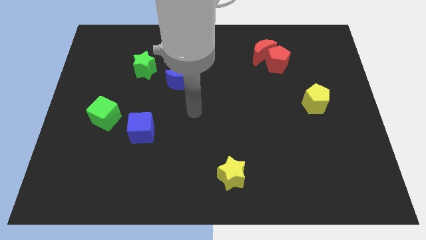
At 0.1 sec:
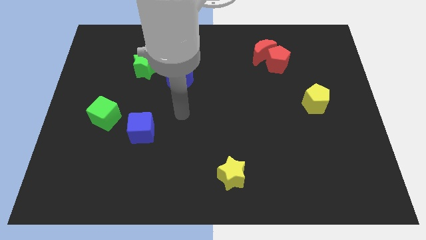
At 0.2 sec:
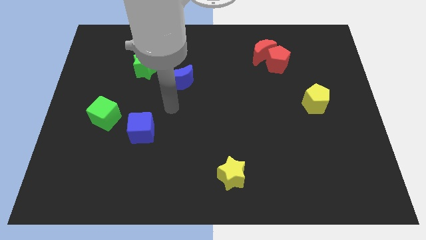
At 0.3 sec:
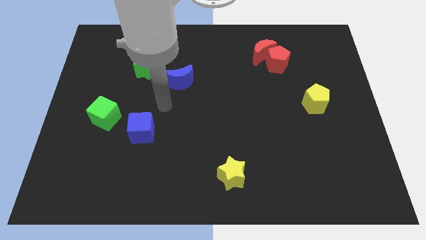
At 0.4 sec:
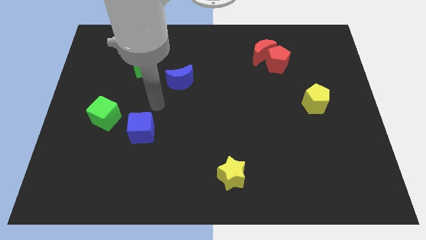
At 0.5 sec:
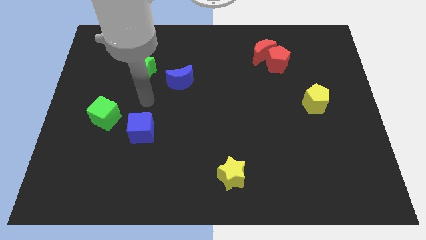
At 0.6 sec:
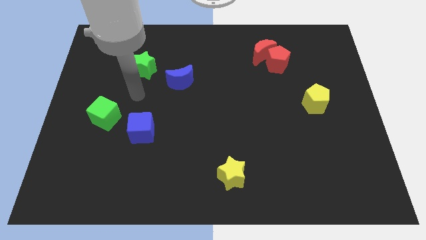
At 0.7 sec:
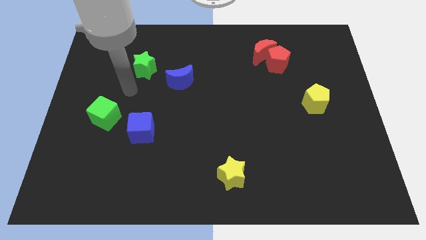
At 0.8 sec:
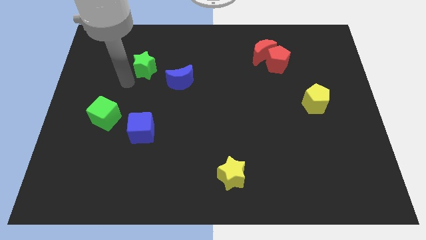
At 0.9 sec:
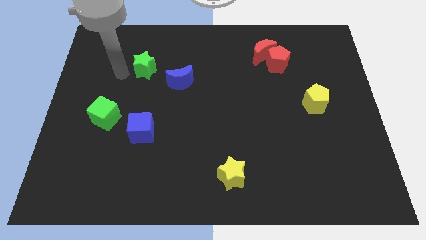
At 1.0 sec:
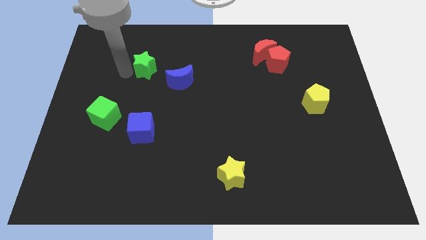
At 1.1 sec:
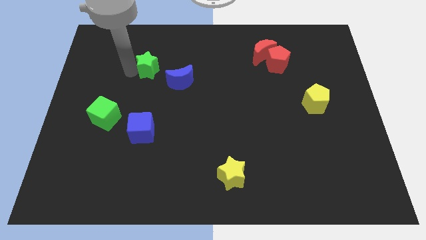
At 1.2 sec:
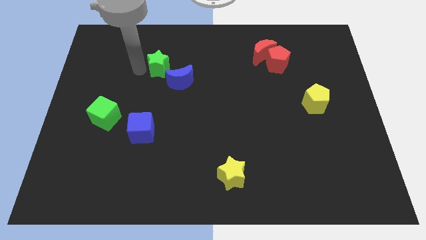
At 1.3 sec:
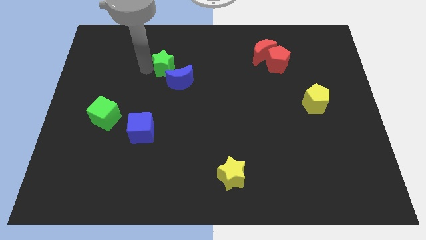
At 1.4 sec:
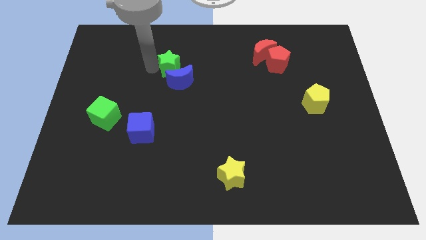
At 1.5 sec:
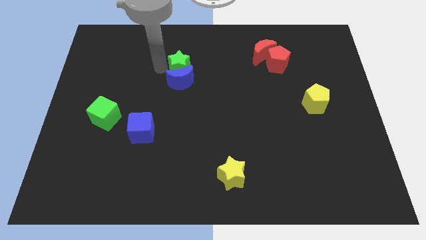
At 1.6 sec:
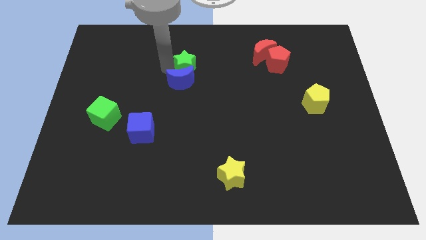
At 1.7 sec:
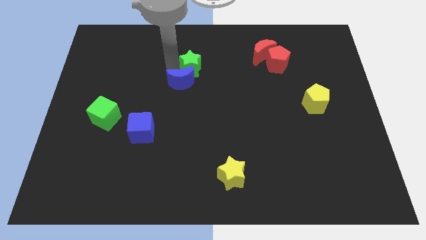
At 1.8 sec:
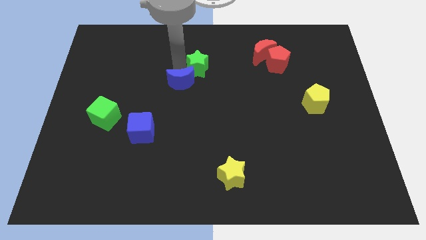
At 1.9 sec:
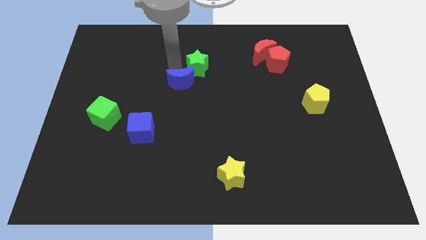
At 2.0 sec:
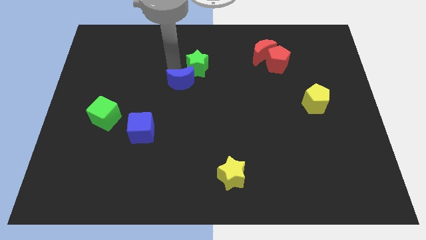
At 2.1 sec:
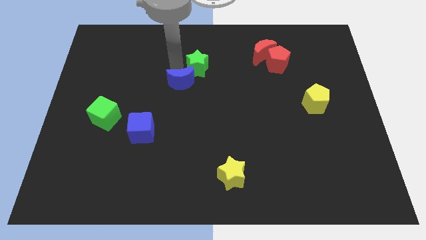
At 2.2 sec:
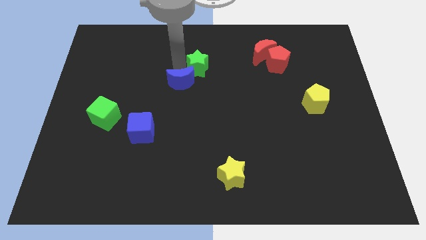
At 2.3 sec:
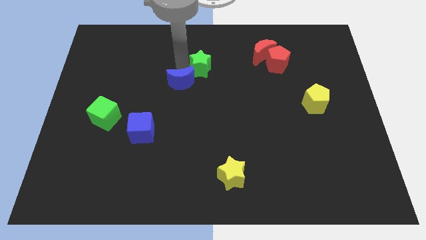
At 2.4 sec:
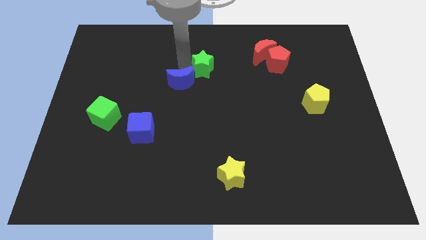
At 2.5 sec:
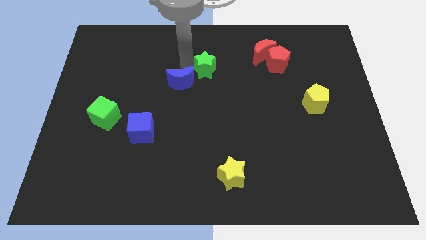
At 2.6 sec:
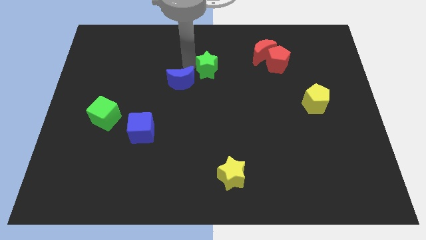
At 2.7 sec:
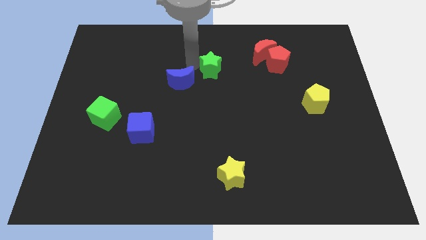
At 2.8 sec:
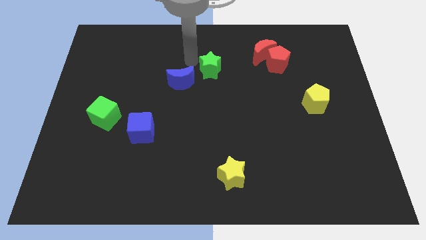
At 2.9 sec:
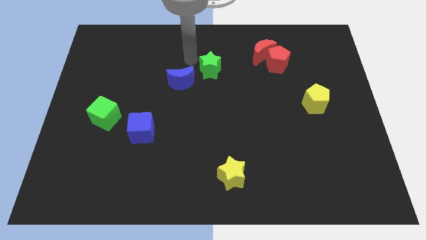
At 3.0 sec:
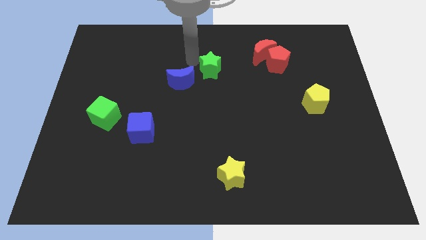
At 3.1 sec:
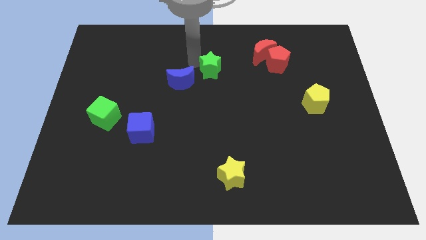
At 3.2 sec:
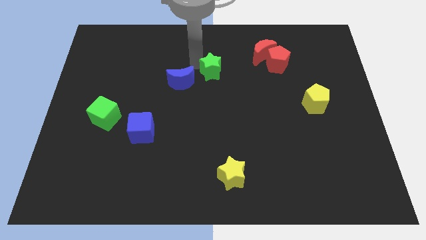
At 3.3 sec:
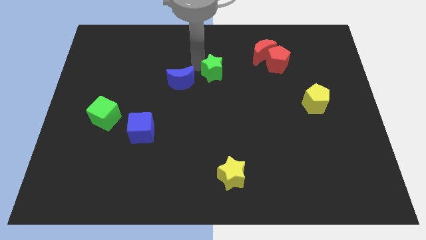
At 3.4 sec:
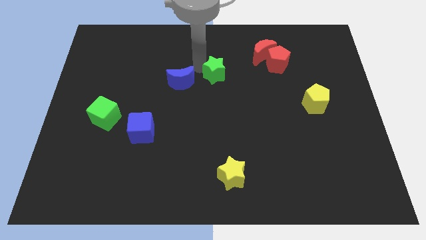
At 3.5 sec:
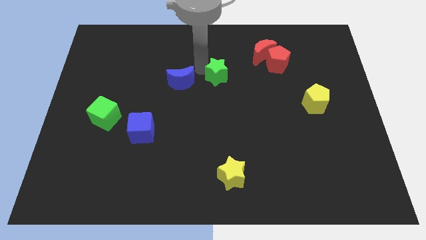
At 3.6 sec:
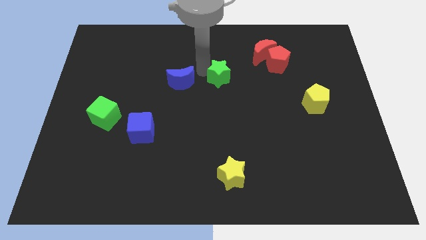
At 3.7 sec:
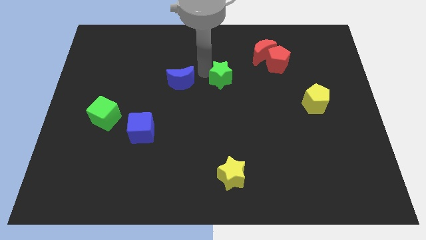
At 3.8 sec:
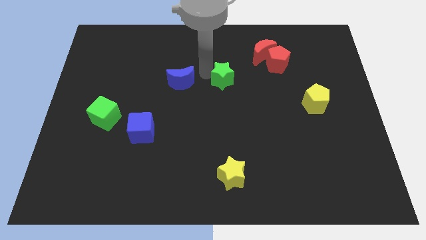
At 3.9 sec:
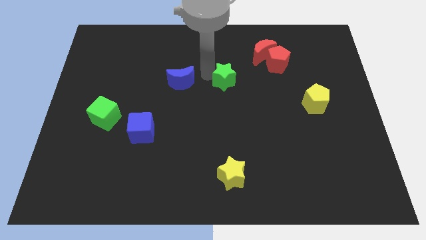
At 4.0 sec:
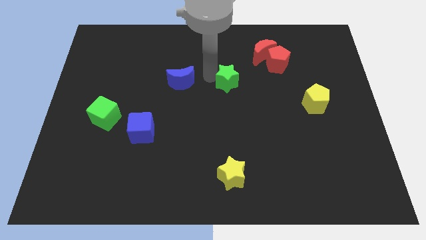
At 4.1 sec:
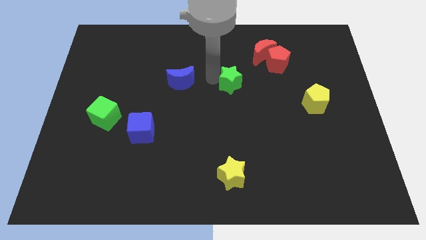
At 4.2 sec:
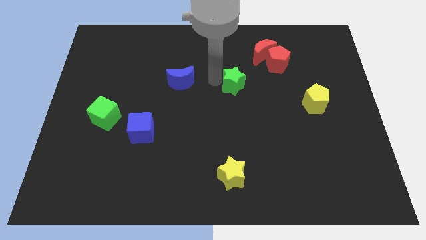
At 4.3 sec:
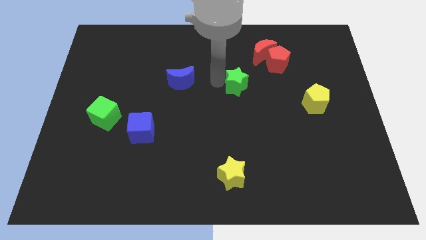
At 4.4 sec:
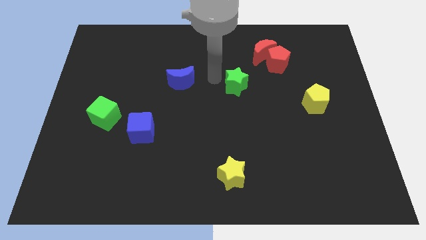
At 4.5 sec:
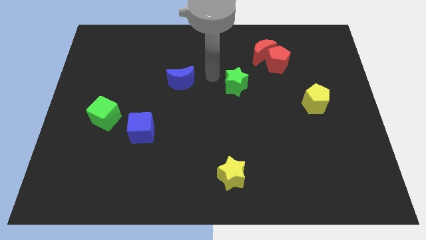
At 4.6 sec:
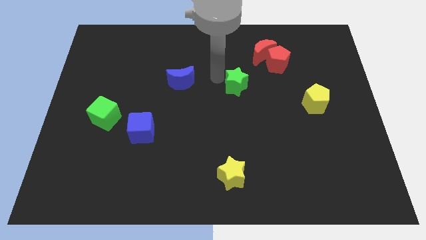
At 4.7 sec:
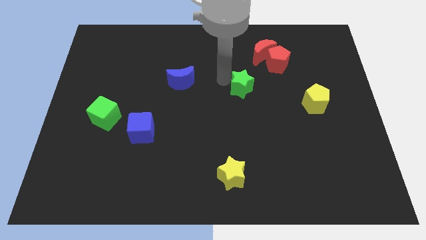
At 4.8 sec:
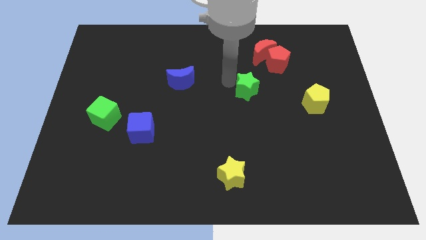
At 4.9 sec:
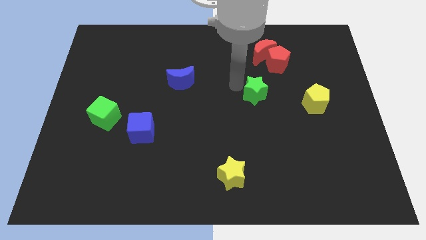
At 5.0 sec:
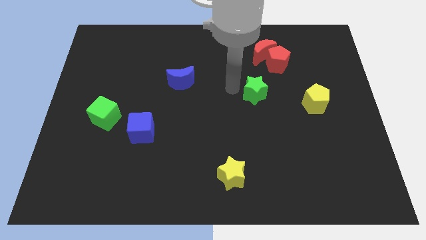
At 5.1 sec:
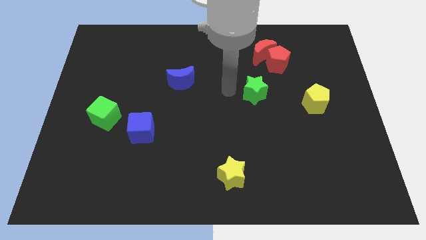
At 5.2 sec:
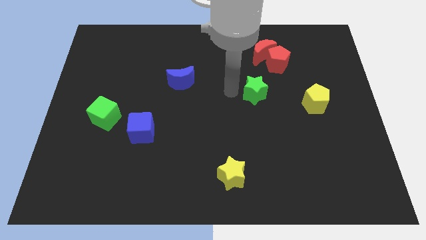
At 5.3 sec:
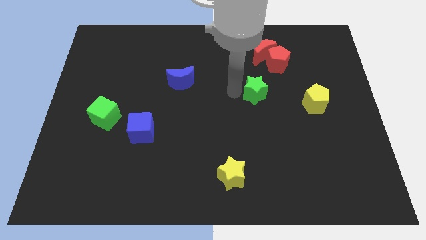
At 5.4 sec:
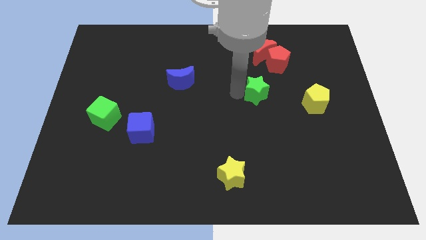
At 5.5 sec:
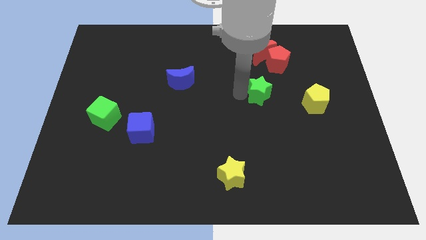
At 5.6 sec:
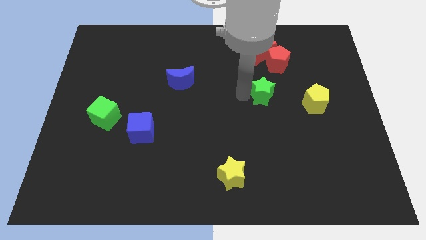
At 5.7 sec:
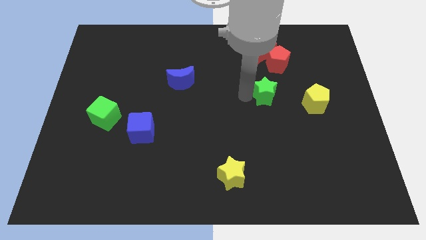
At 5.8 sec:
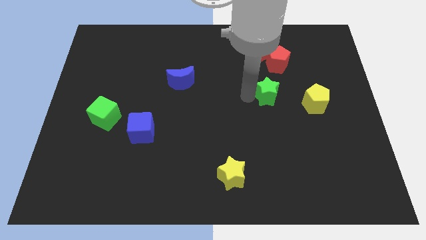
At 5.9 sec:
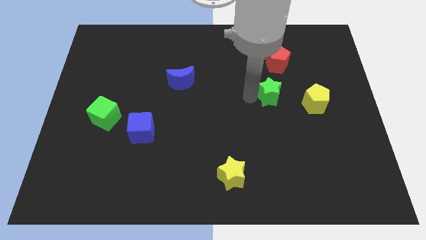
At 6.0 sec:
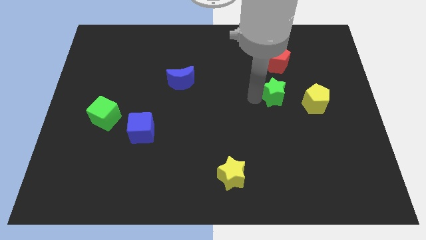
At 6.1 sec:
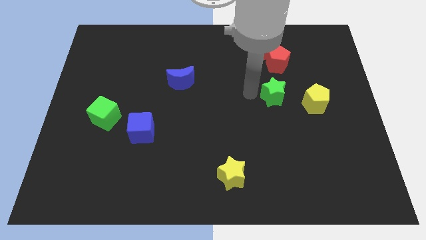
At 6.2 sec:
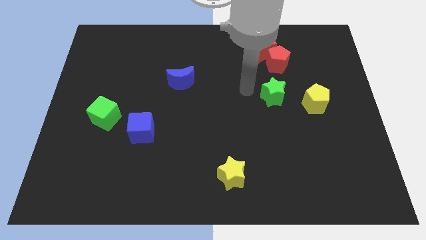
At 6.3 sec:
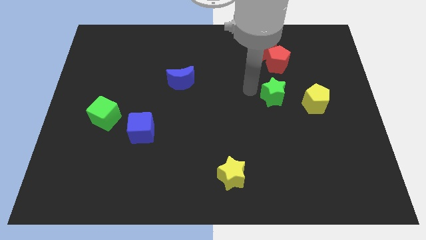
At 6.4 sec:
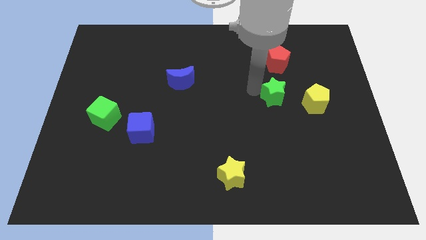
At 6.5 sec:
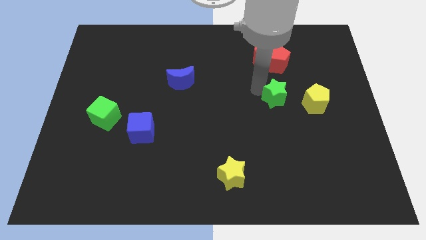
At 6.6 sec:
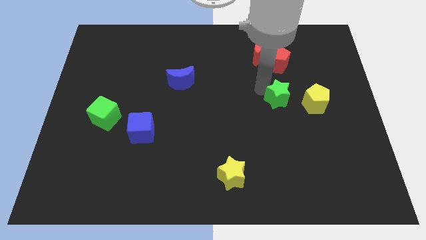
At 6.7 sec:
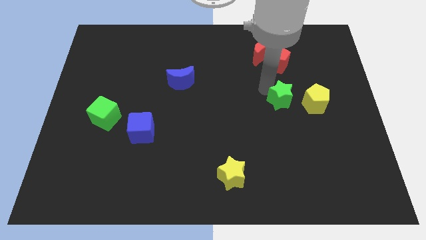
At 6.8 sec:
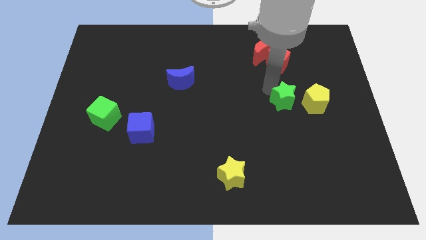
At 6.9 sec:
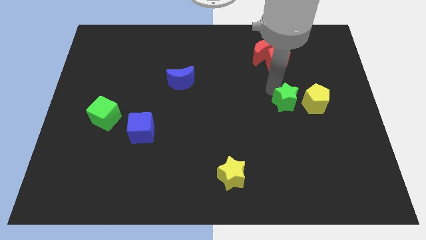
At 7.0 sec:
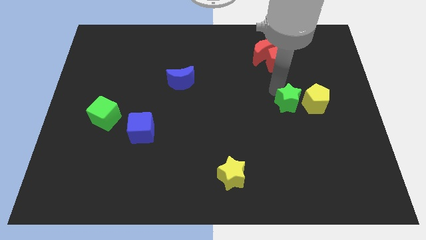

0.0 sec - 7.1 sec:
move the green star towards the yellow pentagon
